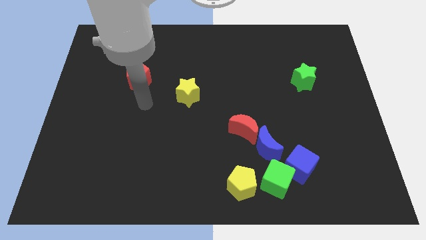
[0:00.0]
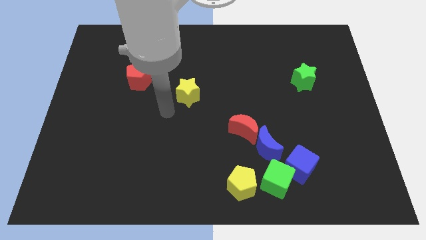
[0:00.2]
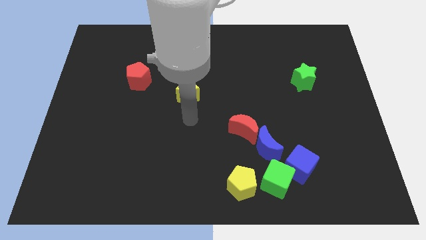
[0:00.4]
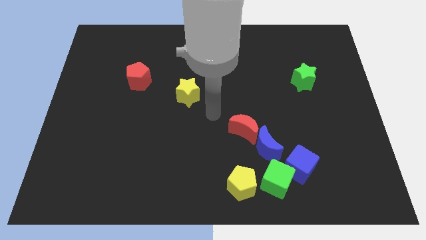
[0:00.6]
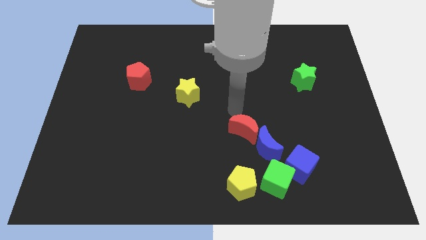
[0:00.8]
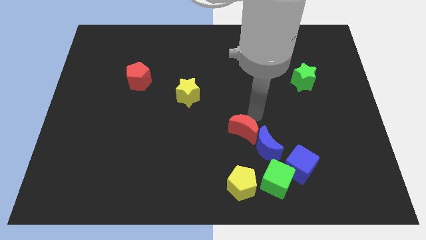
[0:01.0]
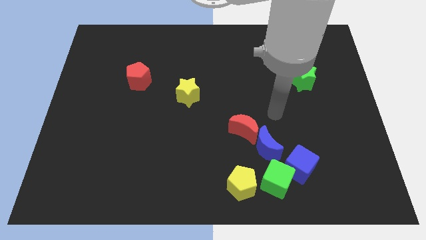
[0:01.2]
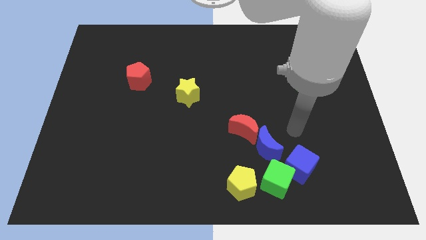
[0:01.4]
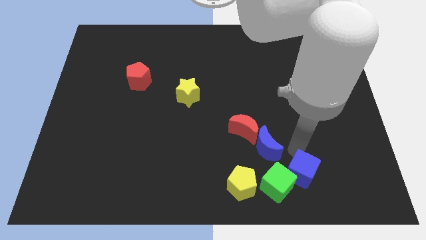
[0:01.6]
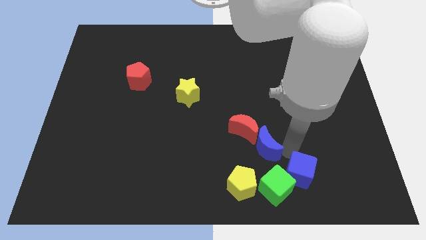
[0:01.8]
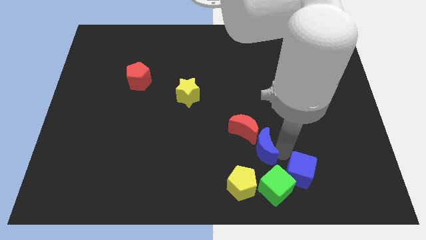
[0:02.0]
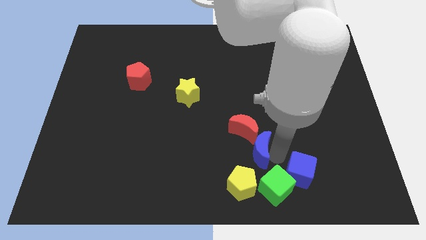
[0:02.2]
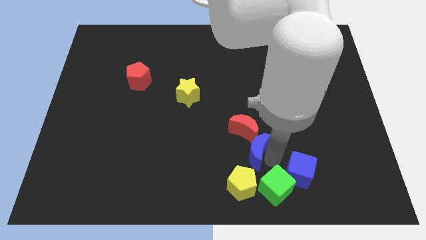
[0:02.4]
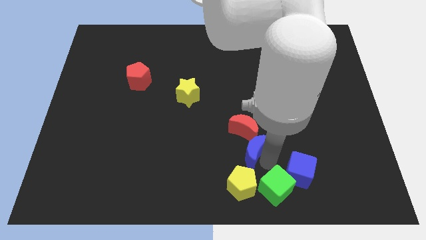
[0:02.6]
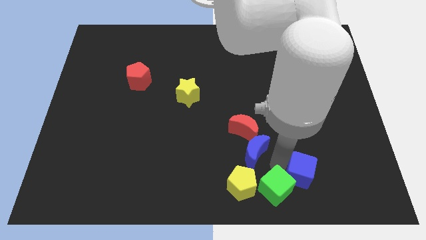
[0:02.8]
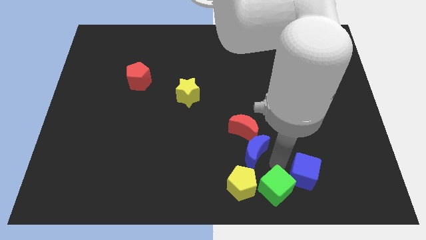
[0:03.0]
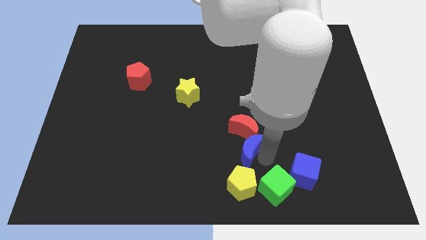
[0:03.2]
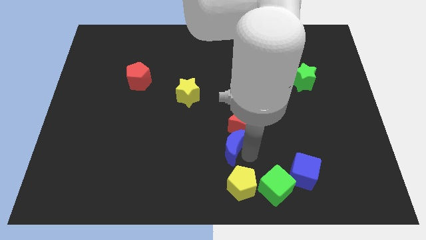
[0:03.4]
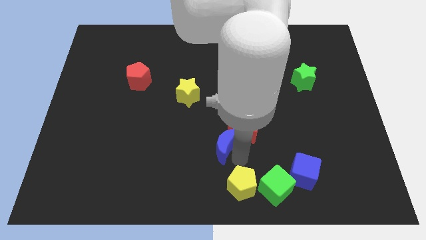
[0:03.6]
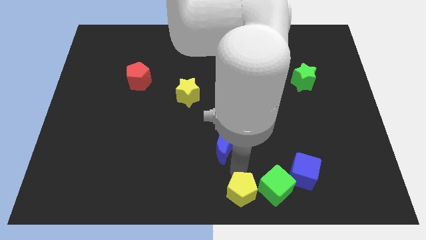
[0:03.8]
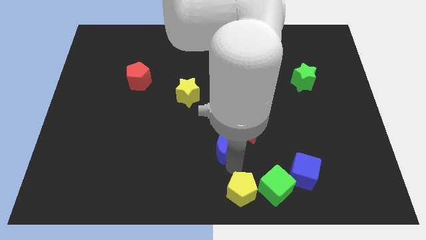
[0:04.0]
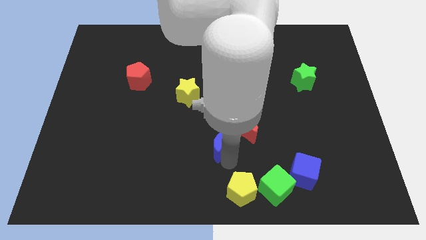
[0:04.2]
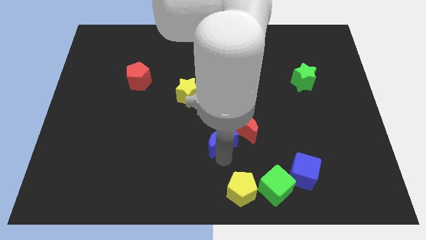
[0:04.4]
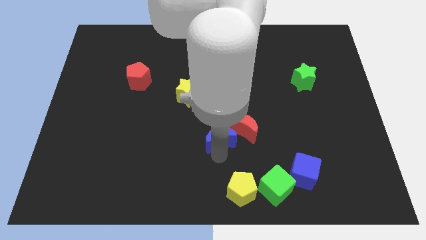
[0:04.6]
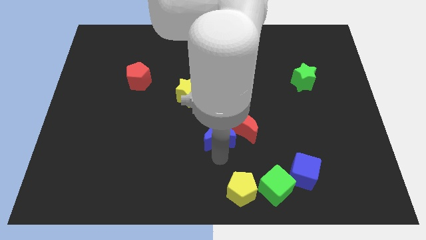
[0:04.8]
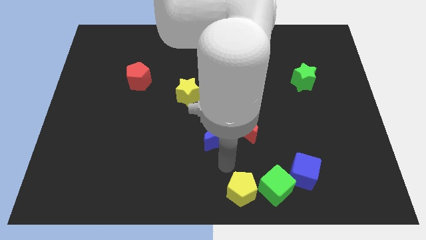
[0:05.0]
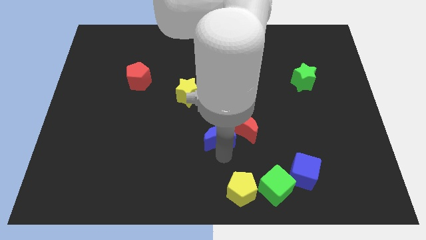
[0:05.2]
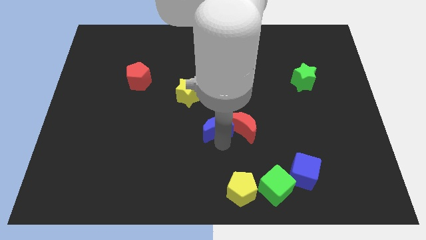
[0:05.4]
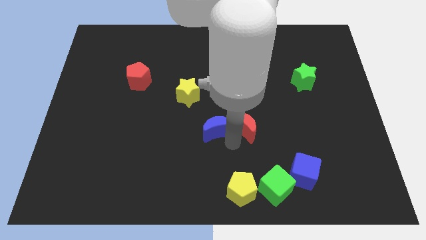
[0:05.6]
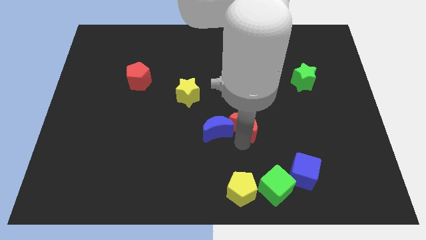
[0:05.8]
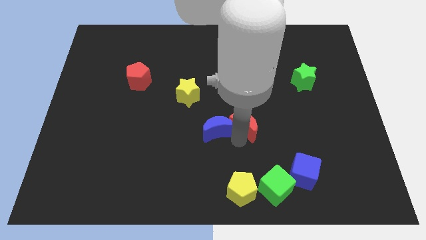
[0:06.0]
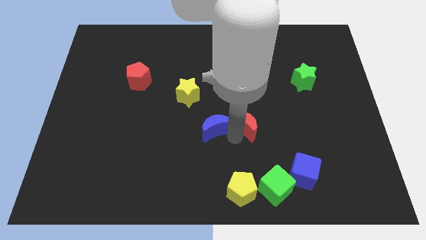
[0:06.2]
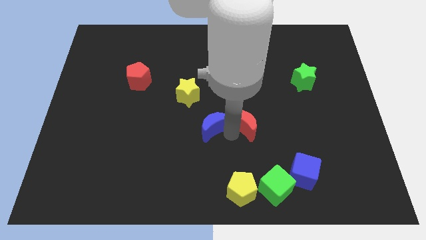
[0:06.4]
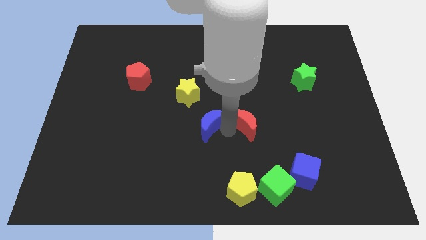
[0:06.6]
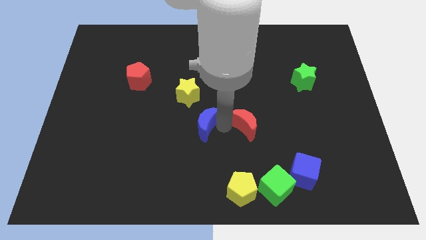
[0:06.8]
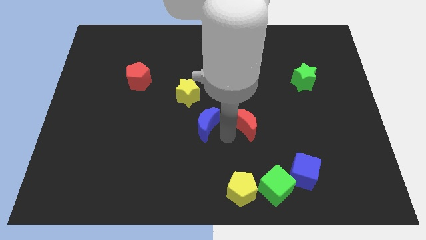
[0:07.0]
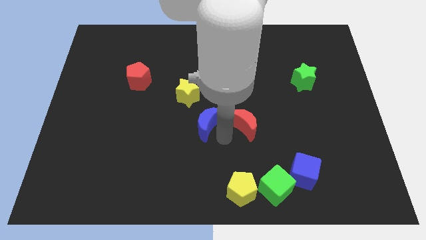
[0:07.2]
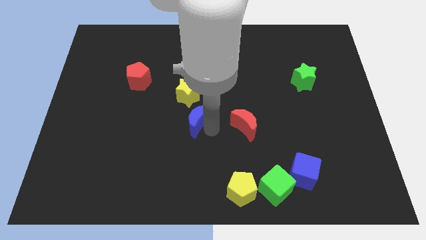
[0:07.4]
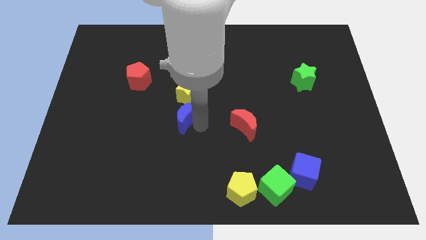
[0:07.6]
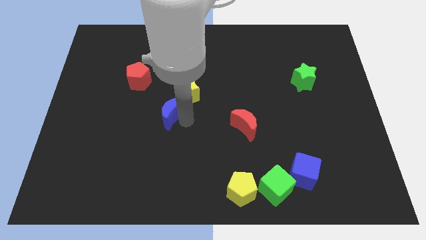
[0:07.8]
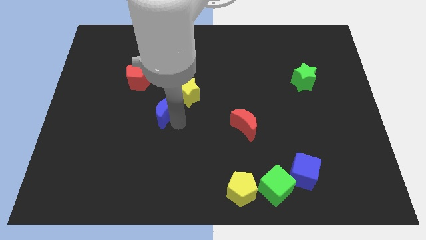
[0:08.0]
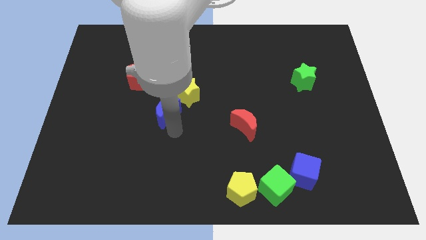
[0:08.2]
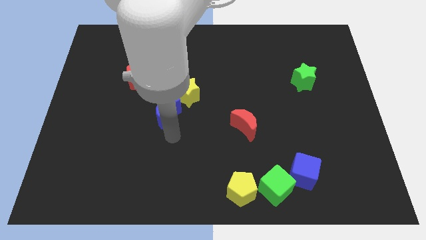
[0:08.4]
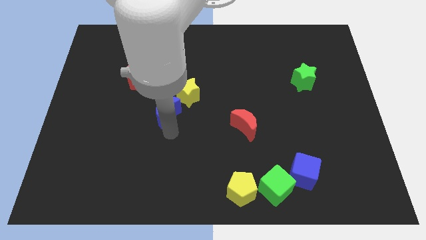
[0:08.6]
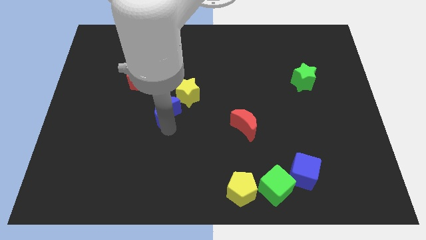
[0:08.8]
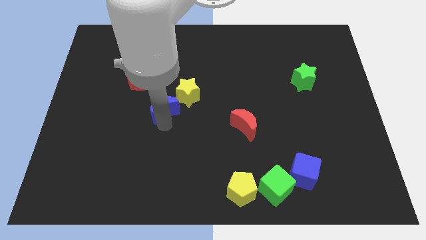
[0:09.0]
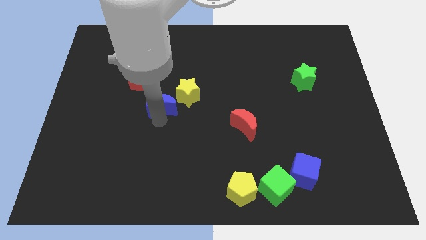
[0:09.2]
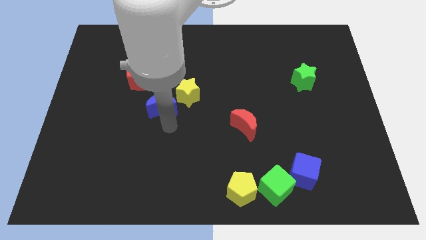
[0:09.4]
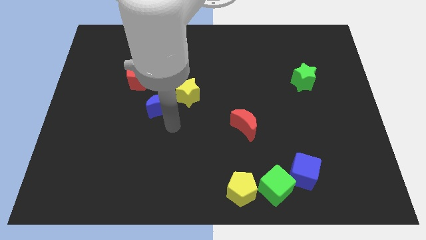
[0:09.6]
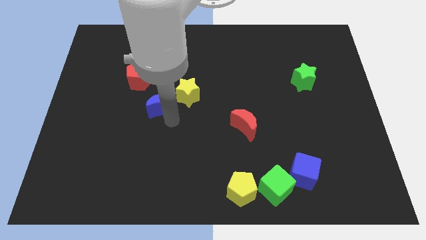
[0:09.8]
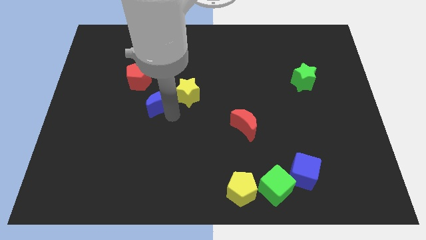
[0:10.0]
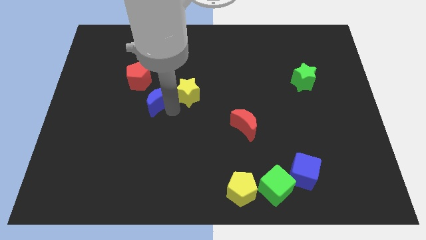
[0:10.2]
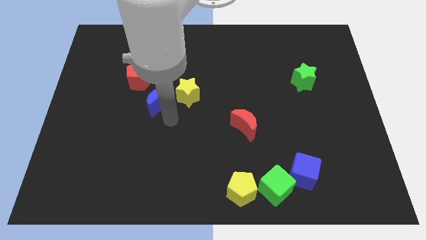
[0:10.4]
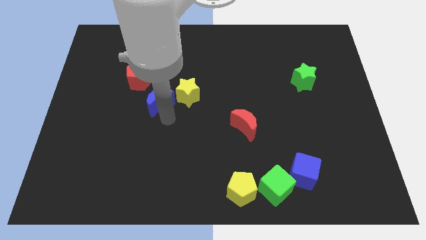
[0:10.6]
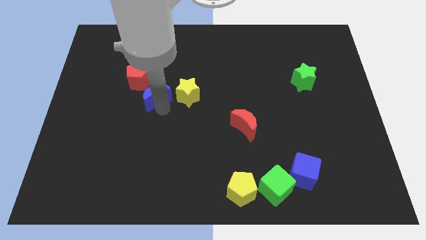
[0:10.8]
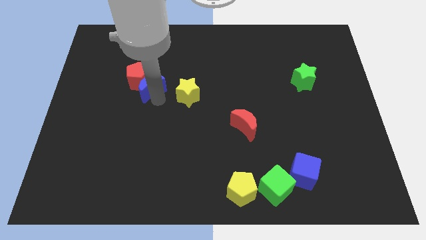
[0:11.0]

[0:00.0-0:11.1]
move the blue moon to the red pentagon

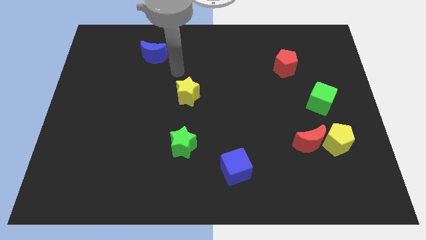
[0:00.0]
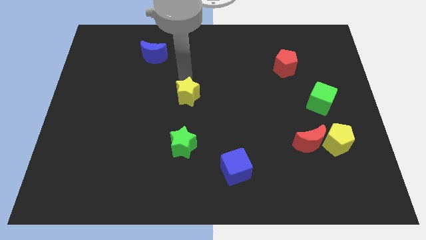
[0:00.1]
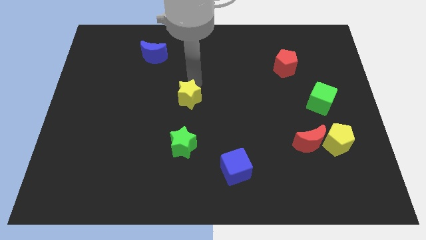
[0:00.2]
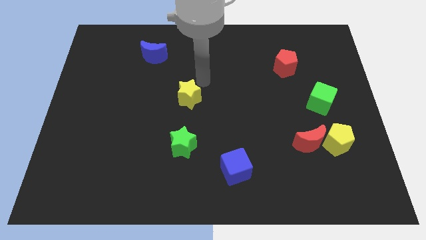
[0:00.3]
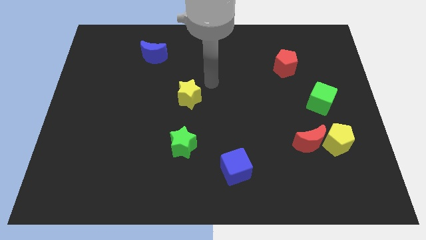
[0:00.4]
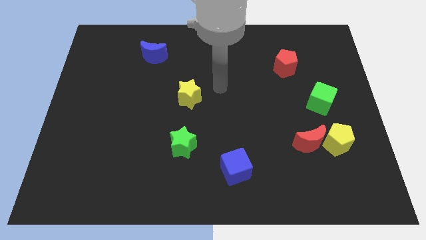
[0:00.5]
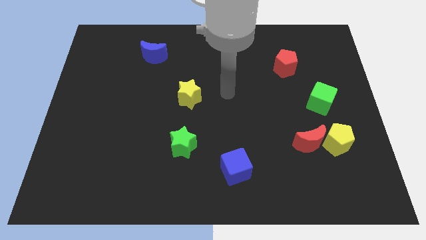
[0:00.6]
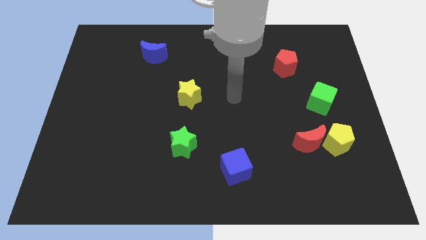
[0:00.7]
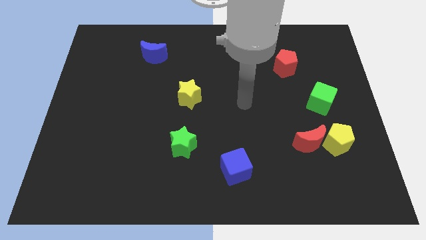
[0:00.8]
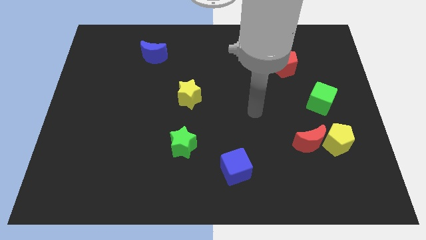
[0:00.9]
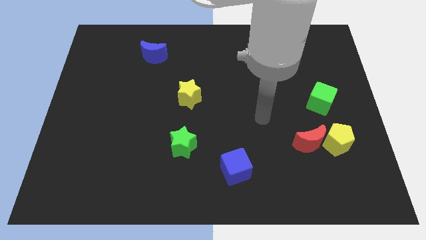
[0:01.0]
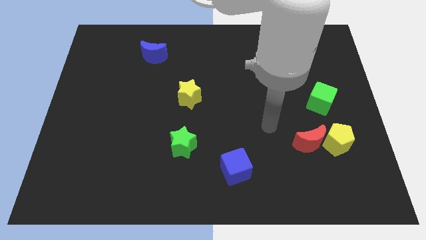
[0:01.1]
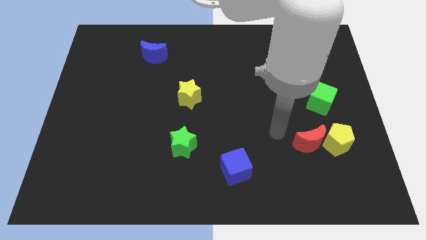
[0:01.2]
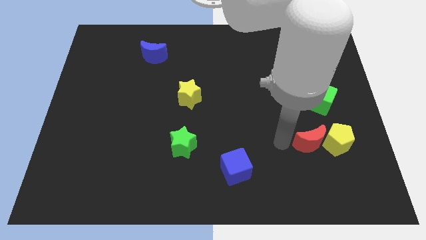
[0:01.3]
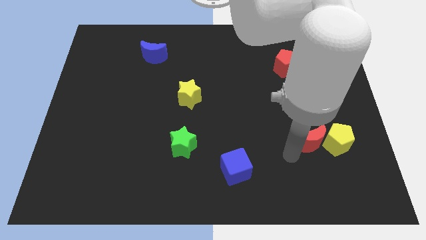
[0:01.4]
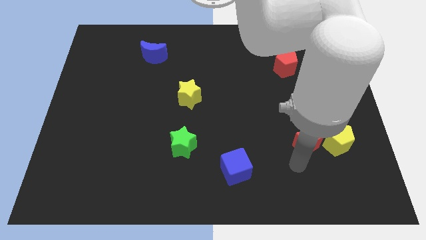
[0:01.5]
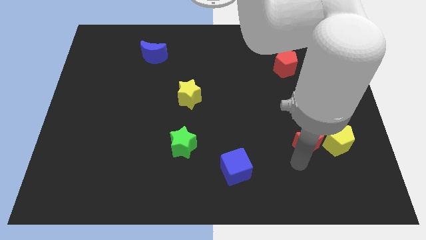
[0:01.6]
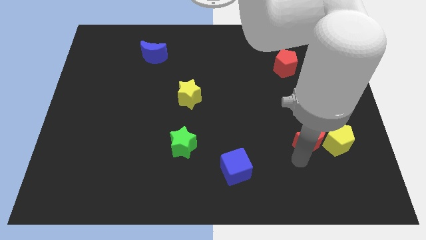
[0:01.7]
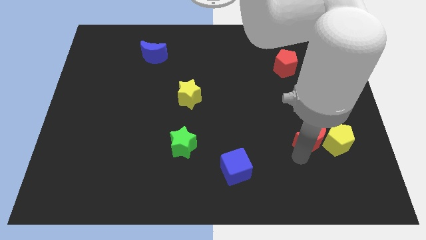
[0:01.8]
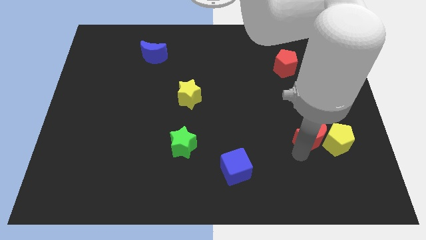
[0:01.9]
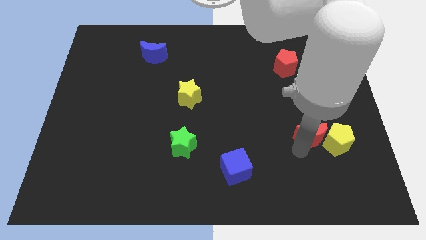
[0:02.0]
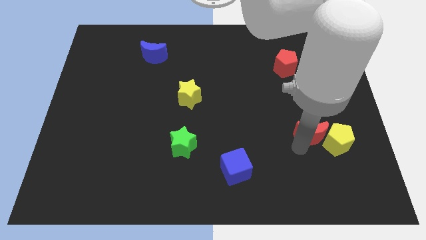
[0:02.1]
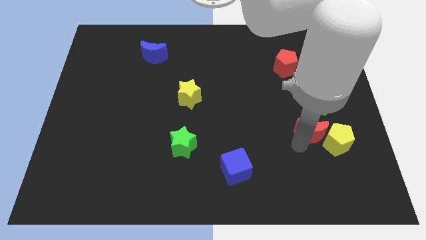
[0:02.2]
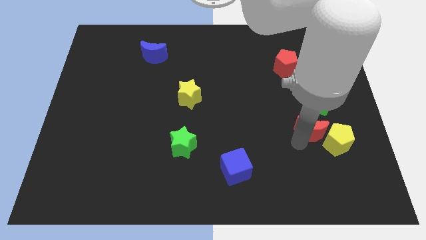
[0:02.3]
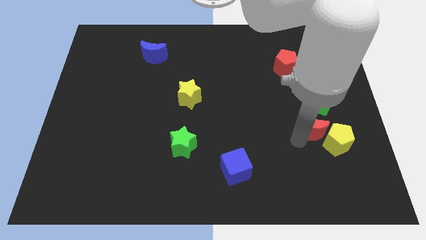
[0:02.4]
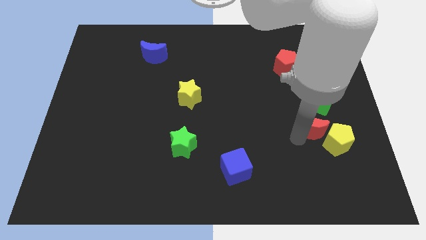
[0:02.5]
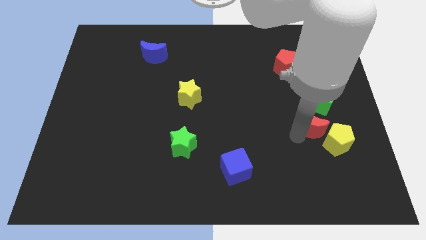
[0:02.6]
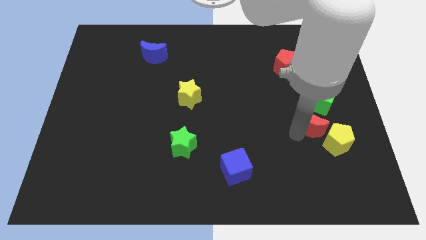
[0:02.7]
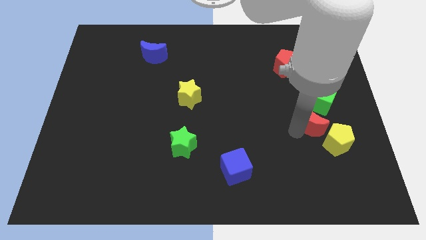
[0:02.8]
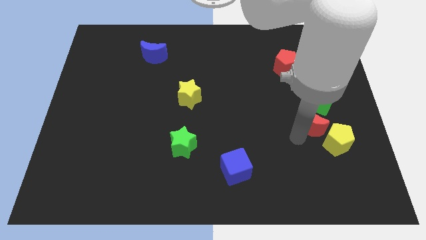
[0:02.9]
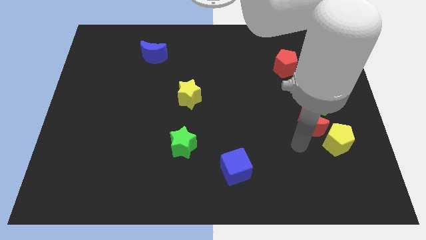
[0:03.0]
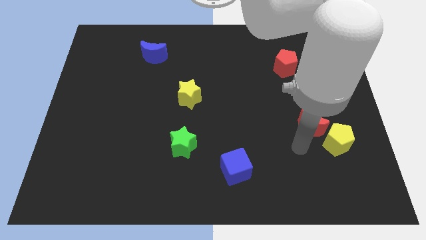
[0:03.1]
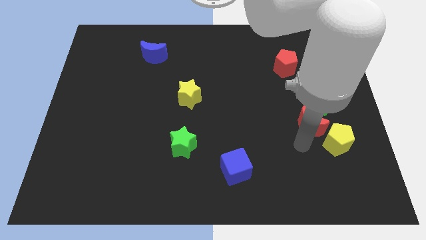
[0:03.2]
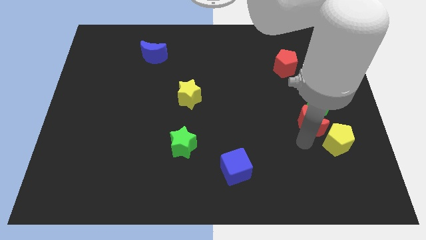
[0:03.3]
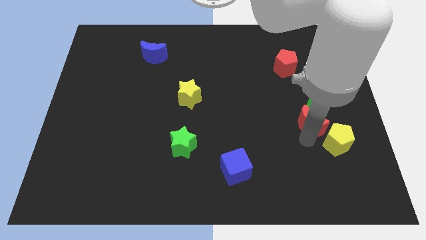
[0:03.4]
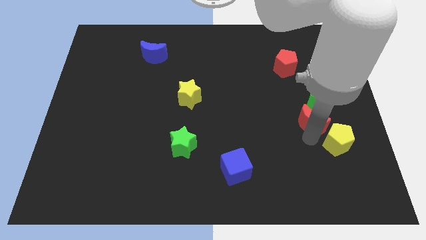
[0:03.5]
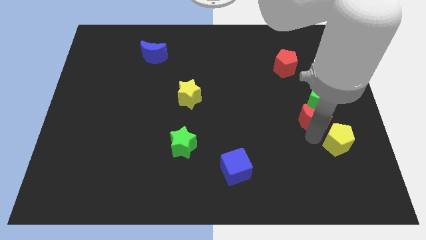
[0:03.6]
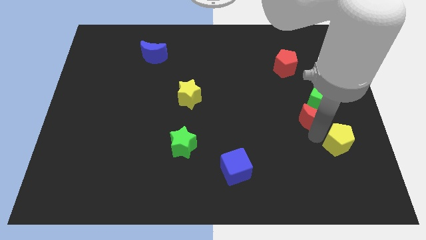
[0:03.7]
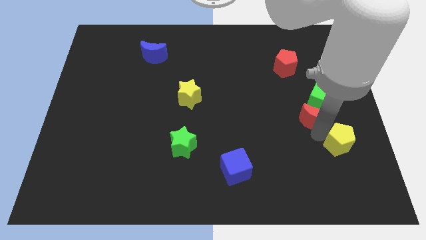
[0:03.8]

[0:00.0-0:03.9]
move the red moon to the green cube
